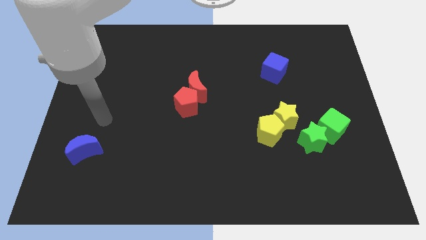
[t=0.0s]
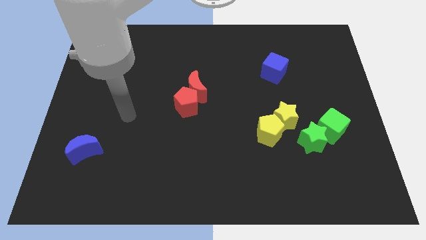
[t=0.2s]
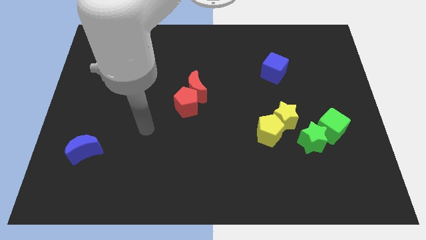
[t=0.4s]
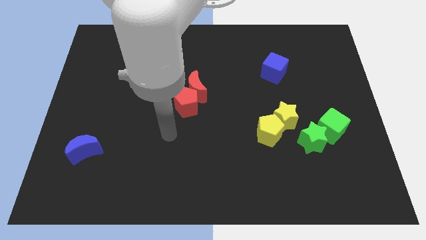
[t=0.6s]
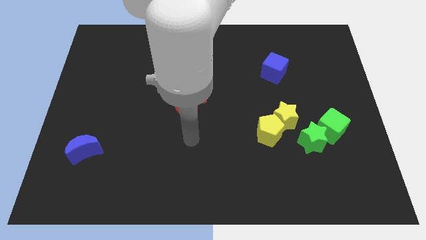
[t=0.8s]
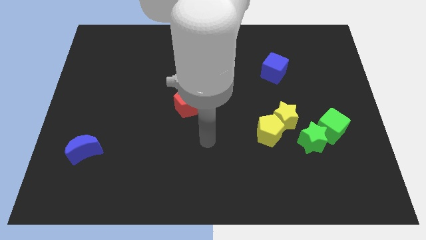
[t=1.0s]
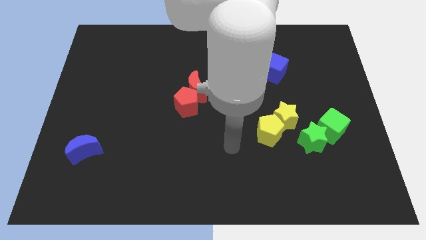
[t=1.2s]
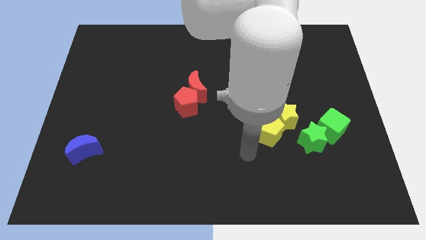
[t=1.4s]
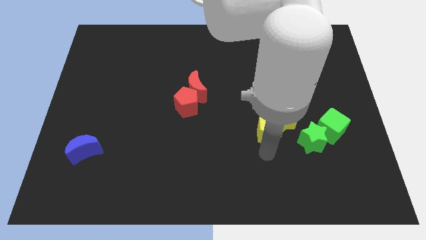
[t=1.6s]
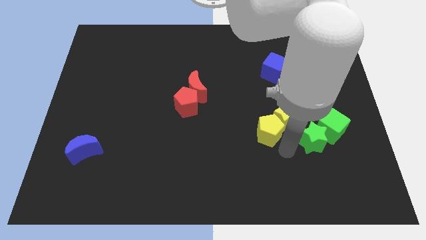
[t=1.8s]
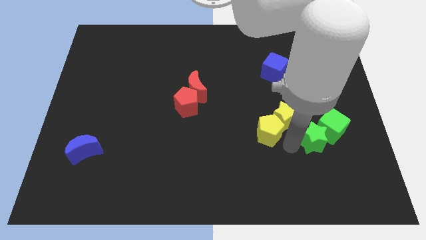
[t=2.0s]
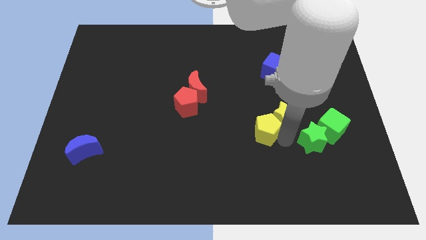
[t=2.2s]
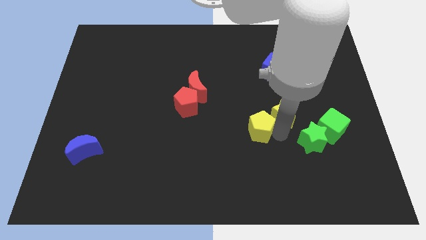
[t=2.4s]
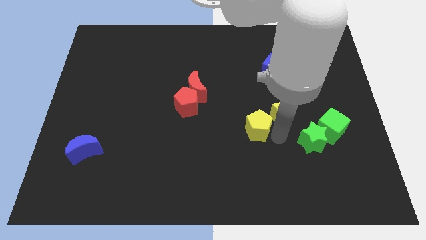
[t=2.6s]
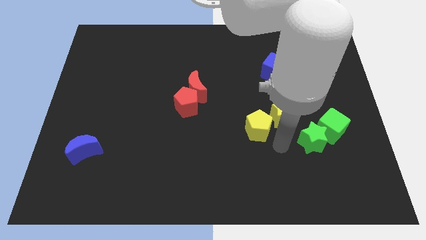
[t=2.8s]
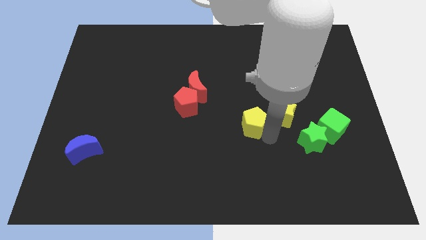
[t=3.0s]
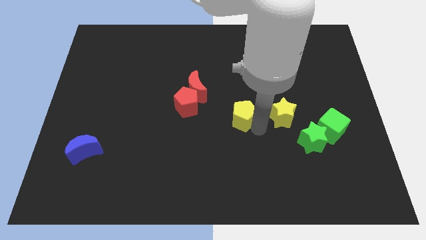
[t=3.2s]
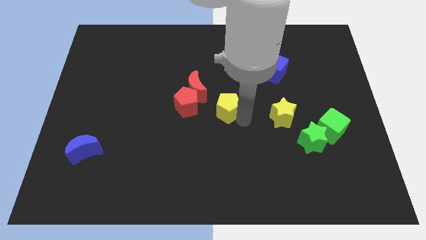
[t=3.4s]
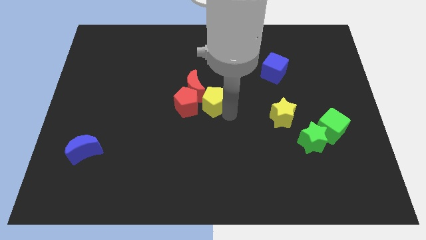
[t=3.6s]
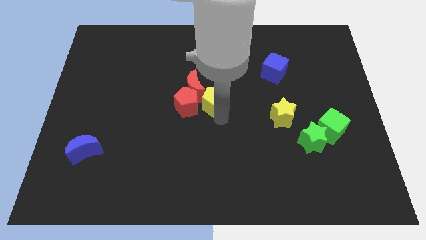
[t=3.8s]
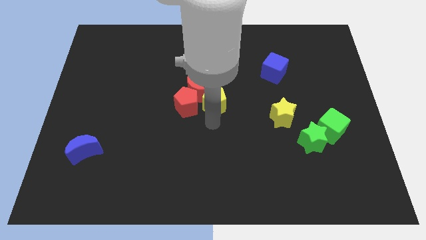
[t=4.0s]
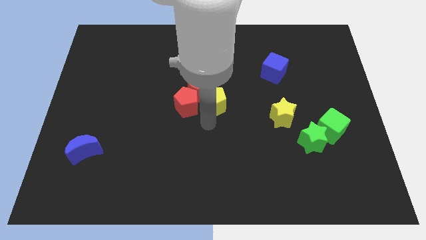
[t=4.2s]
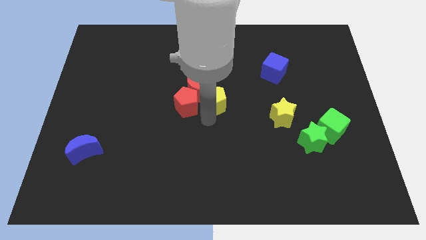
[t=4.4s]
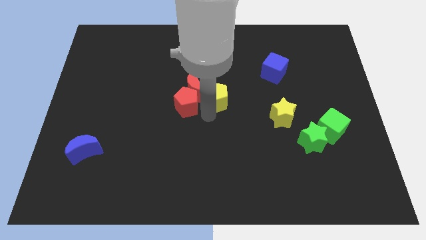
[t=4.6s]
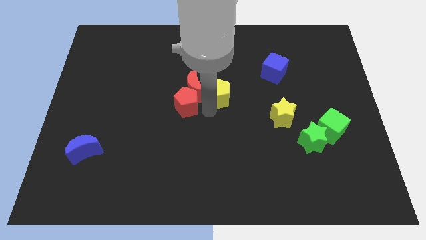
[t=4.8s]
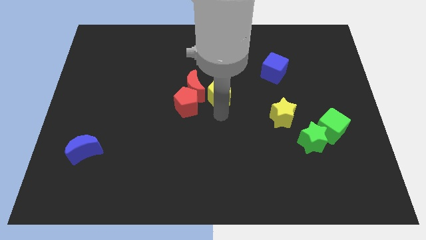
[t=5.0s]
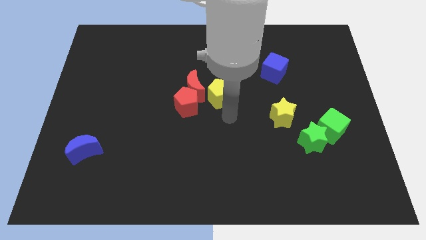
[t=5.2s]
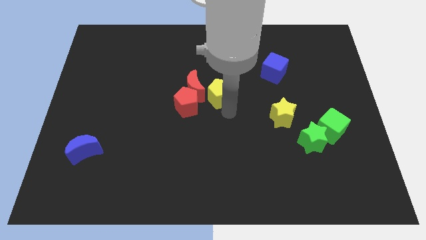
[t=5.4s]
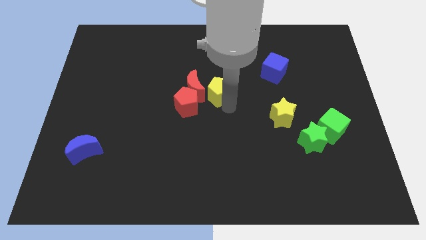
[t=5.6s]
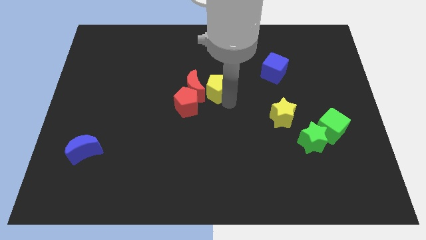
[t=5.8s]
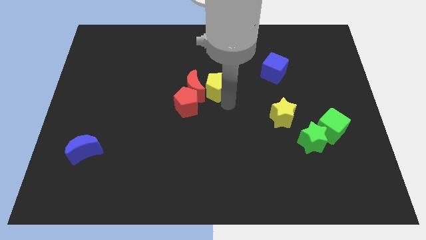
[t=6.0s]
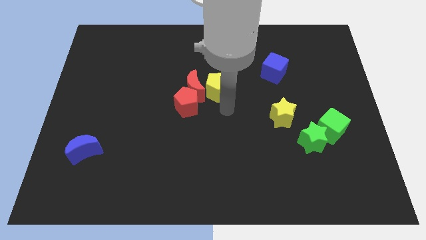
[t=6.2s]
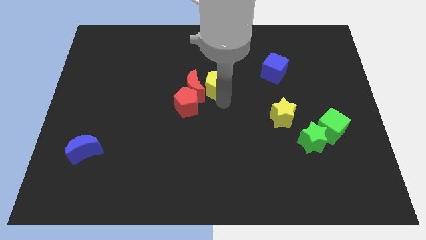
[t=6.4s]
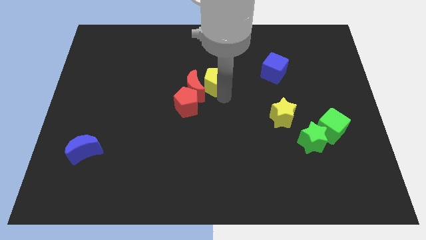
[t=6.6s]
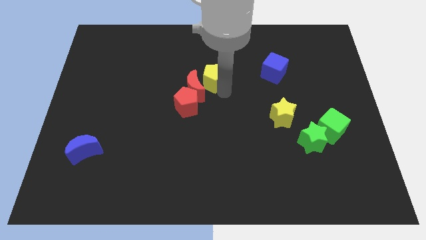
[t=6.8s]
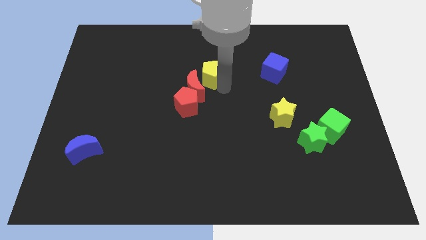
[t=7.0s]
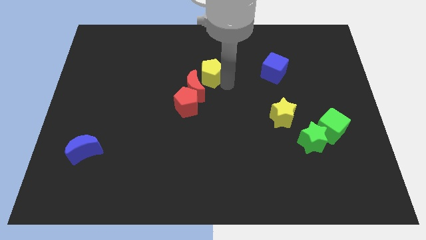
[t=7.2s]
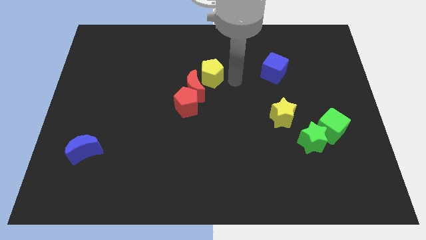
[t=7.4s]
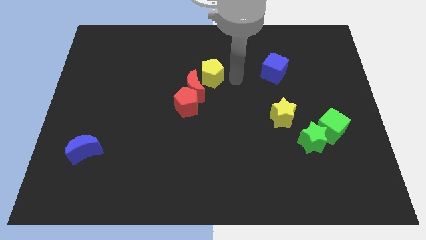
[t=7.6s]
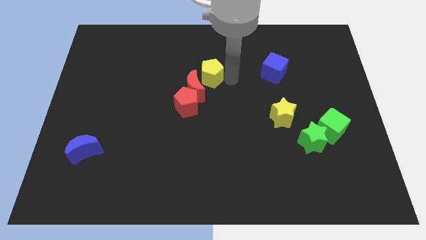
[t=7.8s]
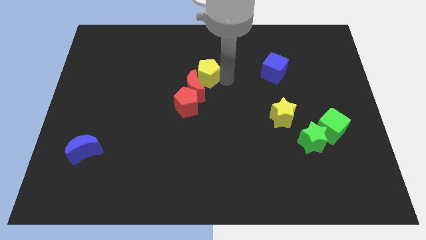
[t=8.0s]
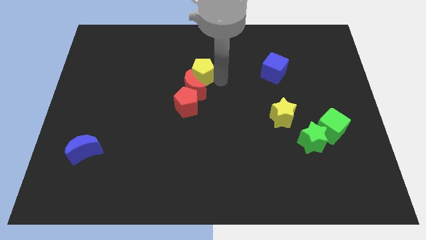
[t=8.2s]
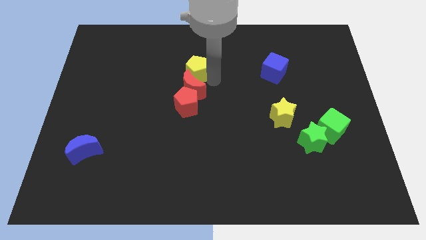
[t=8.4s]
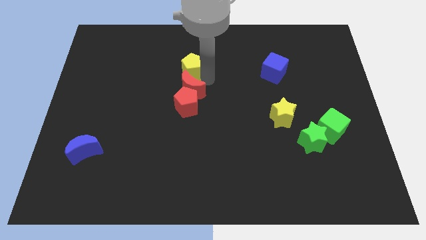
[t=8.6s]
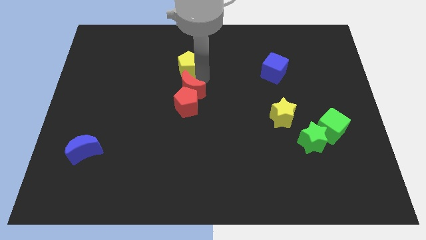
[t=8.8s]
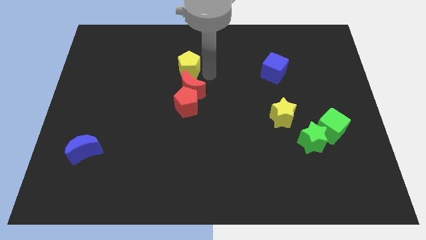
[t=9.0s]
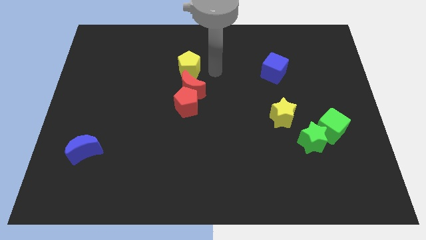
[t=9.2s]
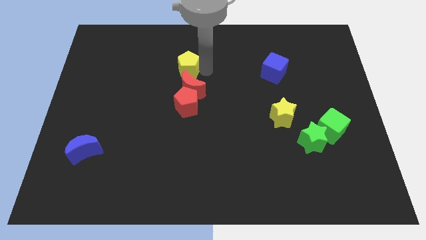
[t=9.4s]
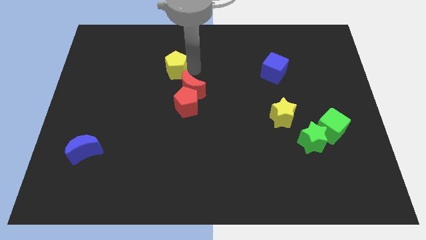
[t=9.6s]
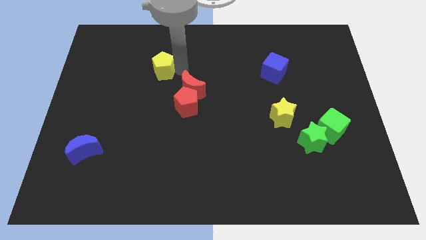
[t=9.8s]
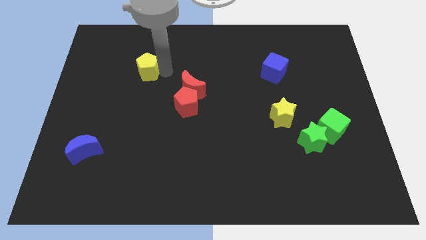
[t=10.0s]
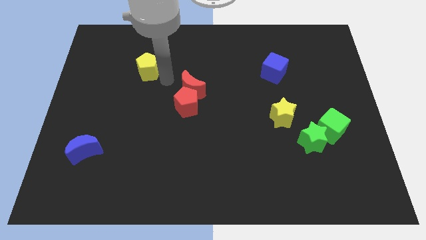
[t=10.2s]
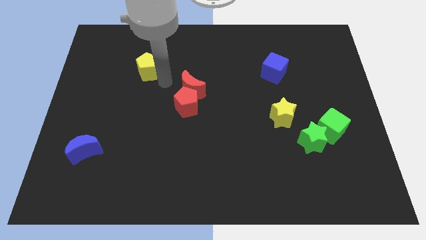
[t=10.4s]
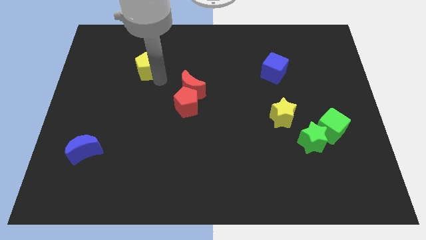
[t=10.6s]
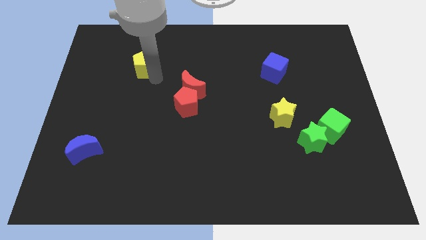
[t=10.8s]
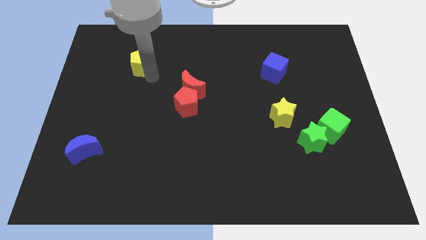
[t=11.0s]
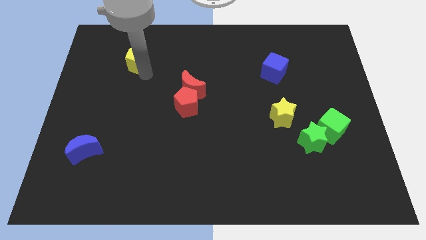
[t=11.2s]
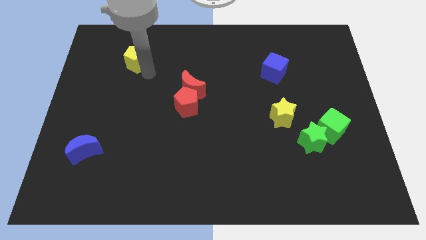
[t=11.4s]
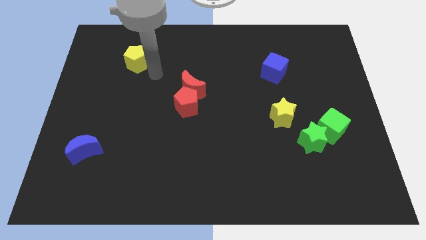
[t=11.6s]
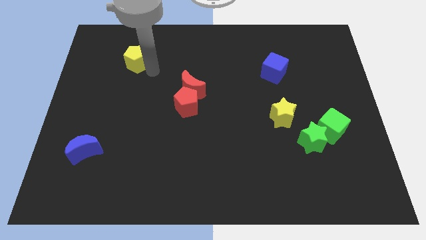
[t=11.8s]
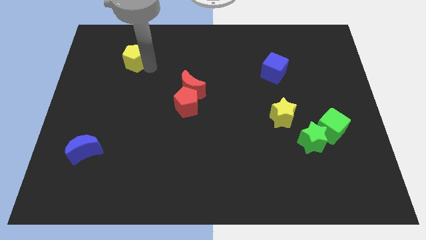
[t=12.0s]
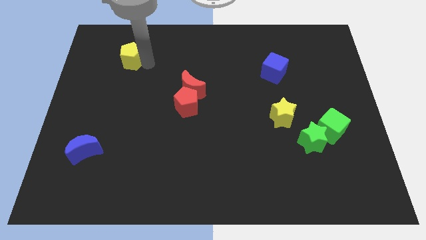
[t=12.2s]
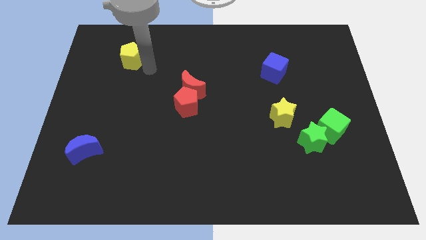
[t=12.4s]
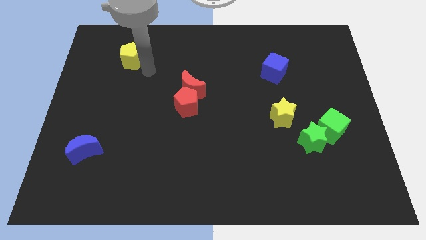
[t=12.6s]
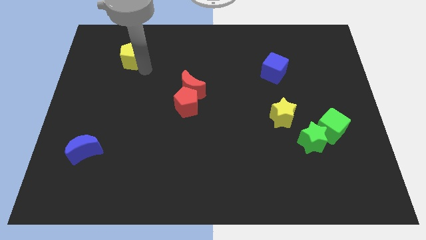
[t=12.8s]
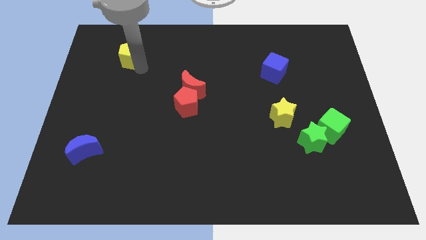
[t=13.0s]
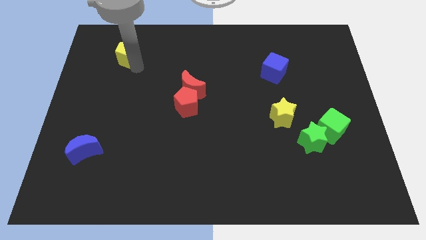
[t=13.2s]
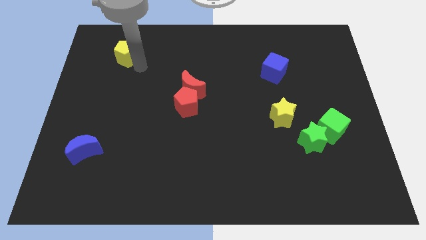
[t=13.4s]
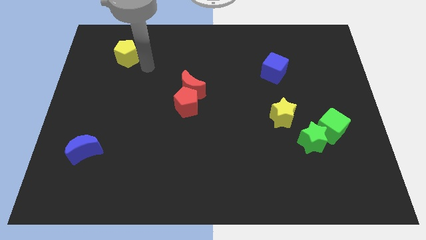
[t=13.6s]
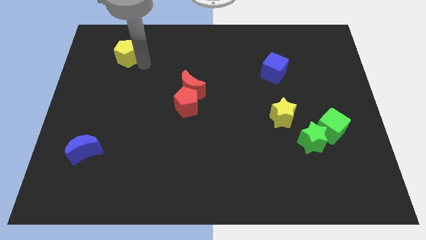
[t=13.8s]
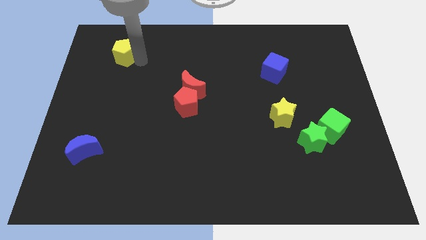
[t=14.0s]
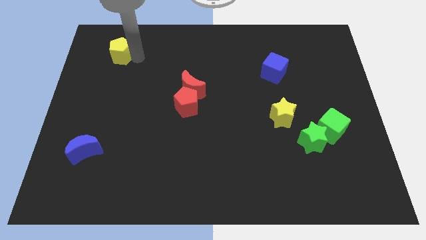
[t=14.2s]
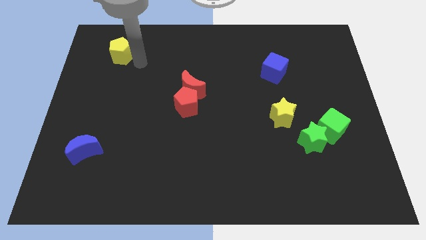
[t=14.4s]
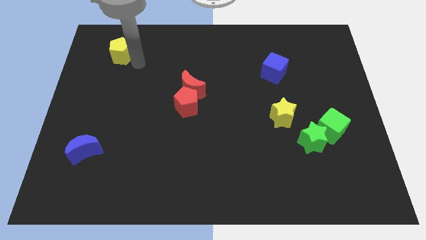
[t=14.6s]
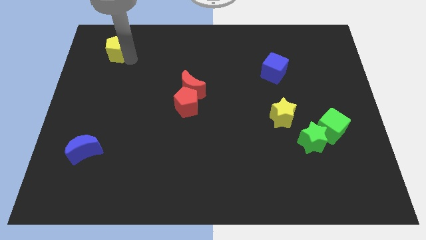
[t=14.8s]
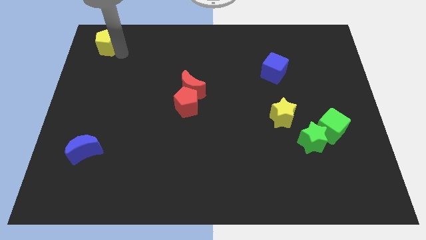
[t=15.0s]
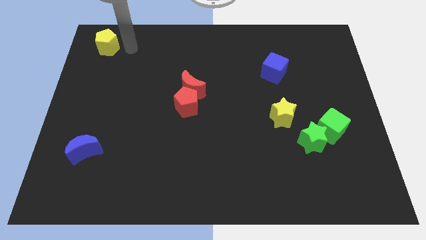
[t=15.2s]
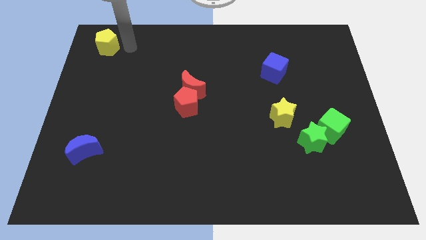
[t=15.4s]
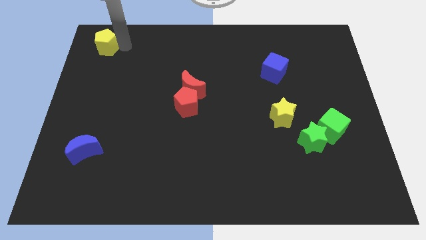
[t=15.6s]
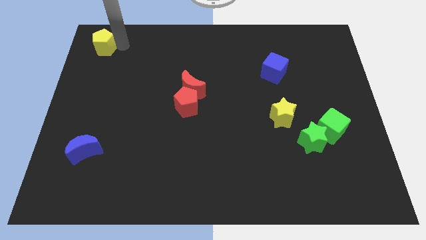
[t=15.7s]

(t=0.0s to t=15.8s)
put the yellow pentagon to the top left of the board
